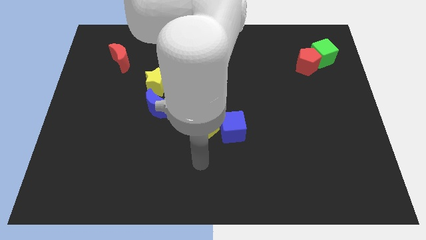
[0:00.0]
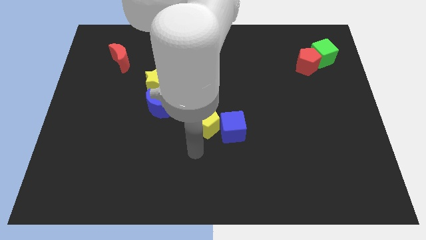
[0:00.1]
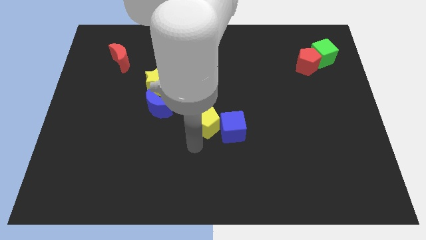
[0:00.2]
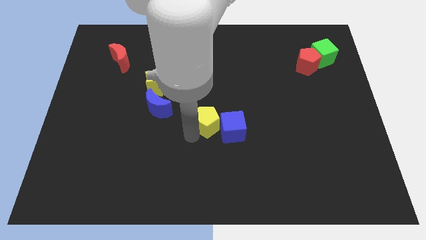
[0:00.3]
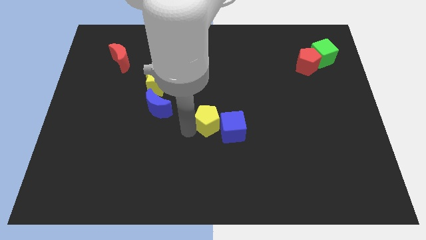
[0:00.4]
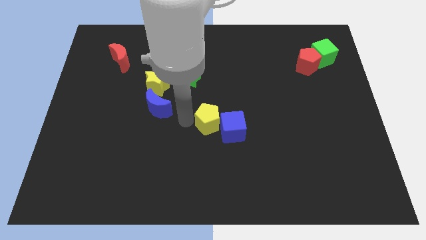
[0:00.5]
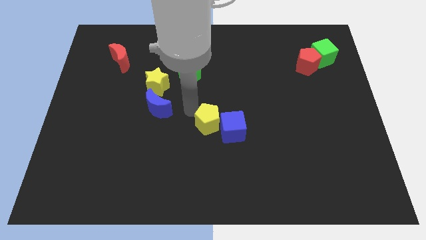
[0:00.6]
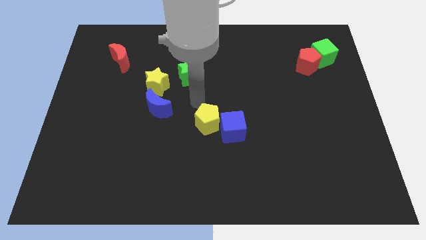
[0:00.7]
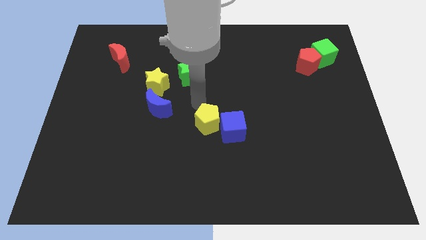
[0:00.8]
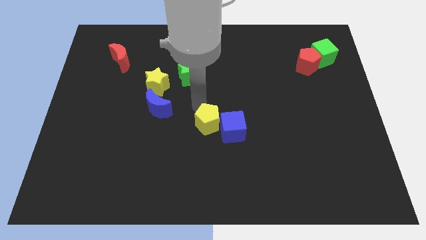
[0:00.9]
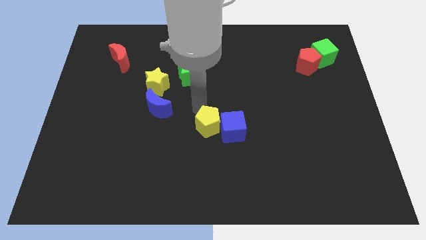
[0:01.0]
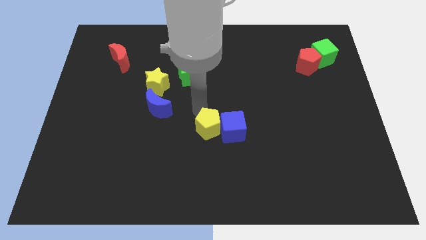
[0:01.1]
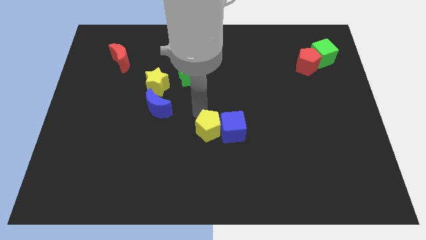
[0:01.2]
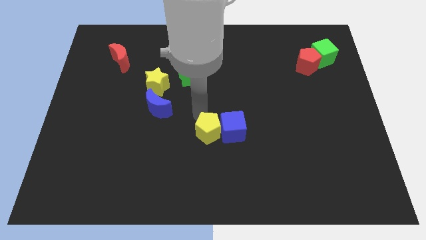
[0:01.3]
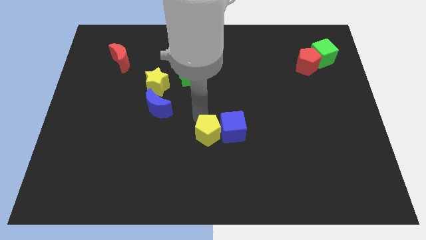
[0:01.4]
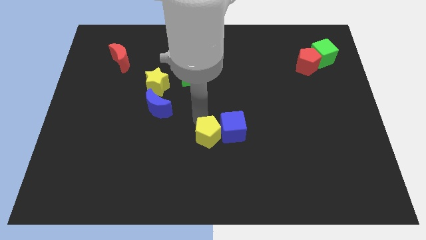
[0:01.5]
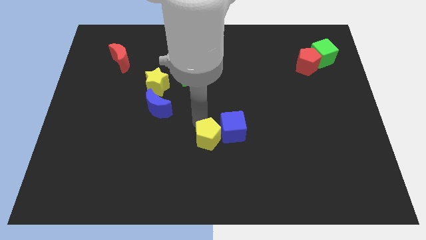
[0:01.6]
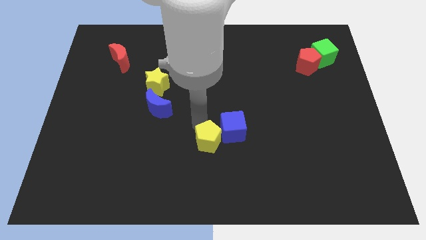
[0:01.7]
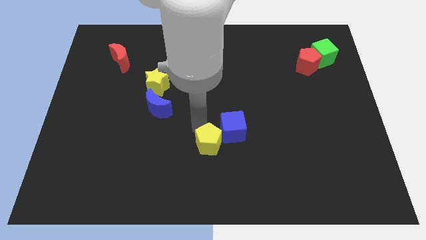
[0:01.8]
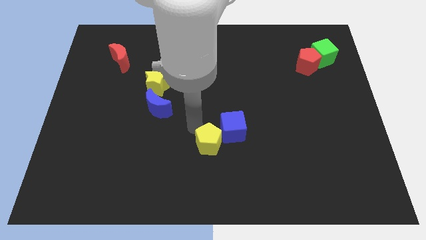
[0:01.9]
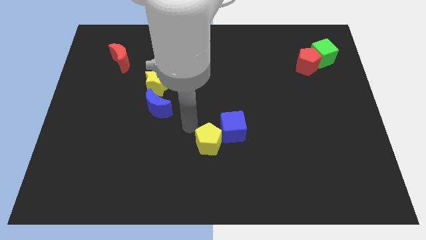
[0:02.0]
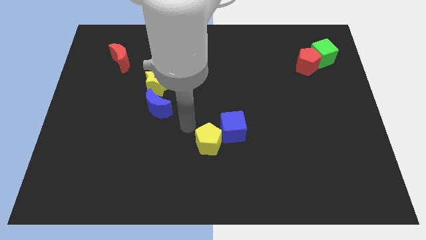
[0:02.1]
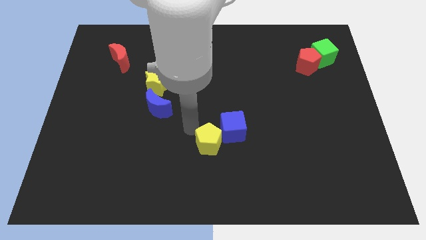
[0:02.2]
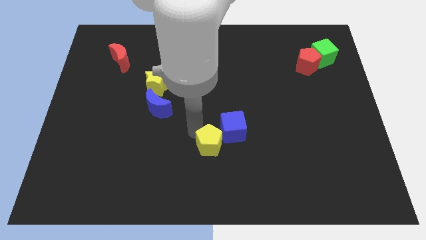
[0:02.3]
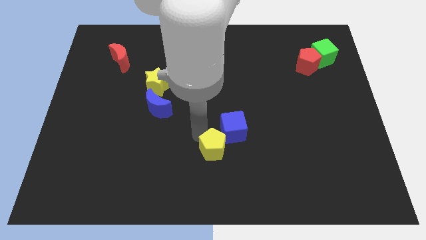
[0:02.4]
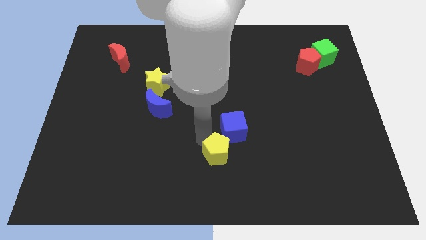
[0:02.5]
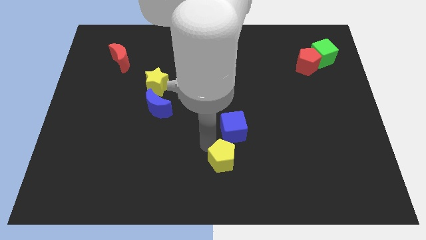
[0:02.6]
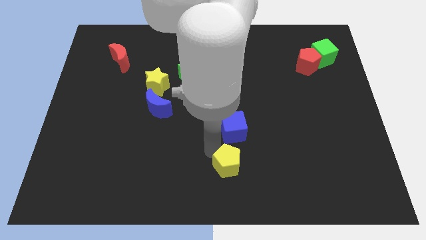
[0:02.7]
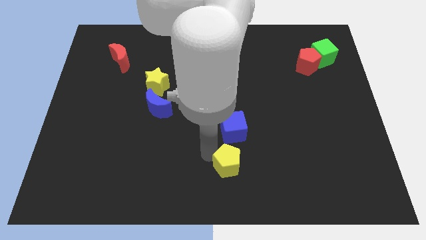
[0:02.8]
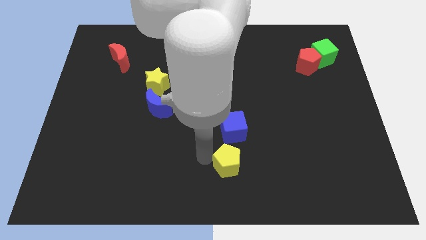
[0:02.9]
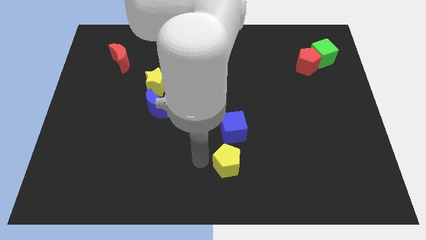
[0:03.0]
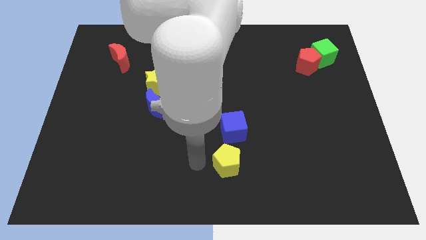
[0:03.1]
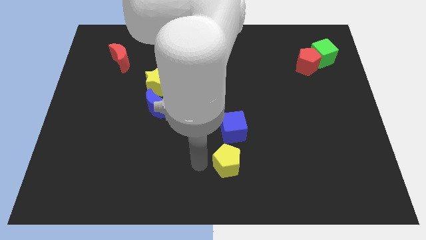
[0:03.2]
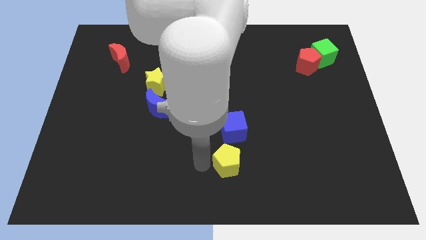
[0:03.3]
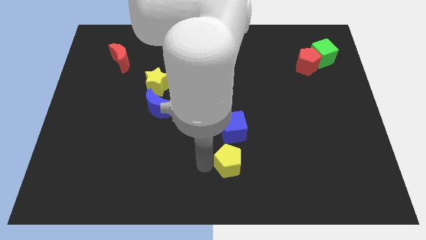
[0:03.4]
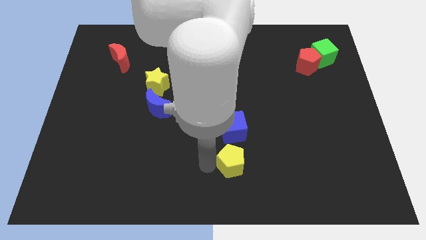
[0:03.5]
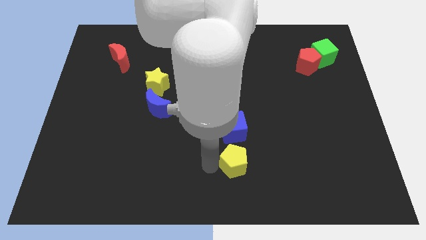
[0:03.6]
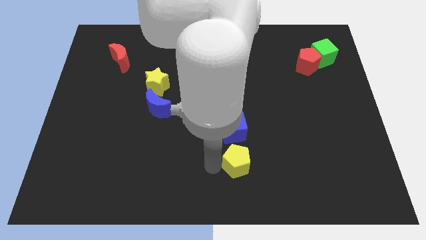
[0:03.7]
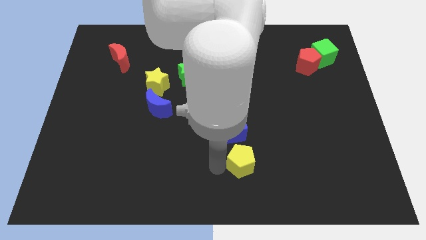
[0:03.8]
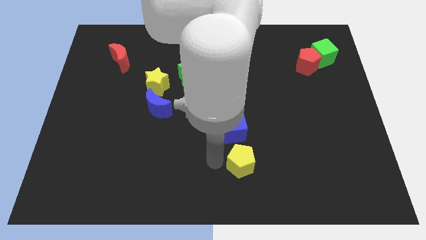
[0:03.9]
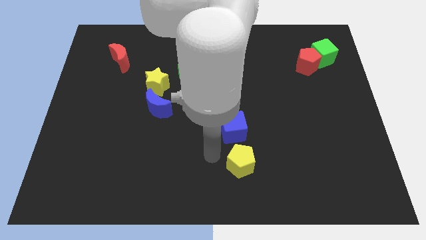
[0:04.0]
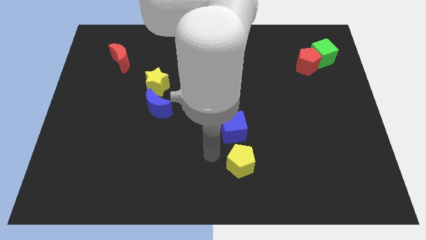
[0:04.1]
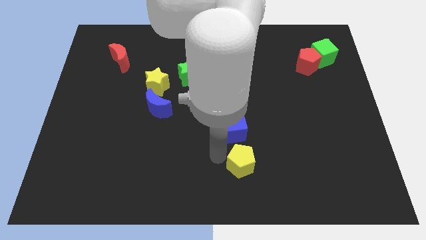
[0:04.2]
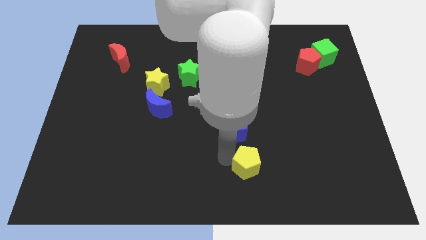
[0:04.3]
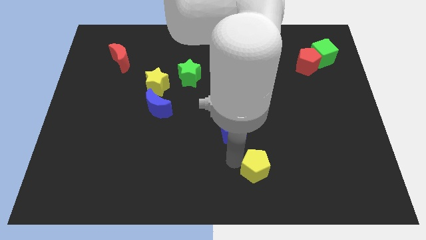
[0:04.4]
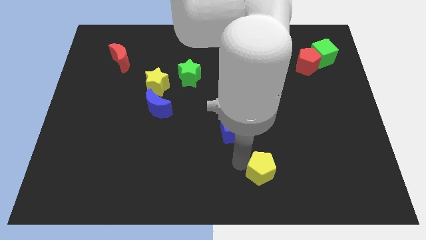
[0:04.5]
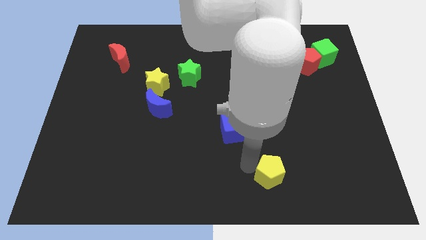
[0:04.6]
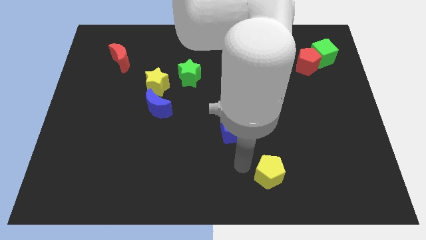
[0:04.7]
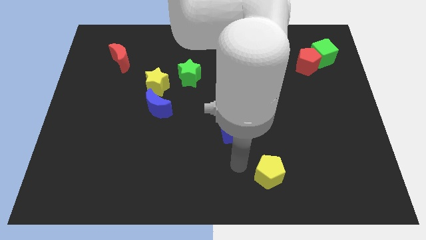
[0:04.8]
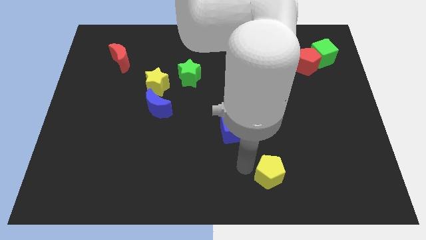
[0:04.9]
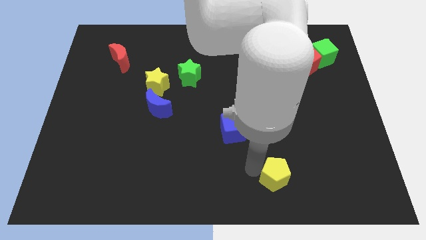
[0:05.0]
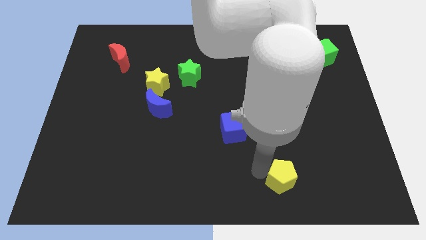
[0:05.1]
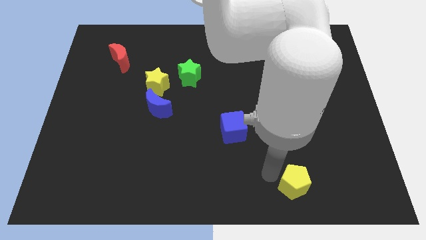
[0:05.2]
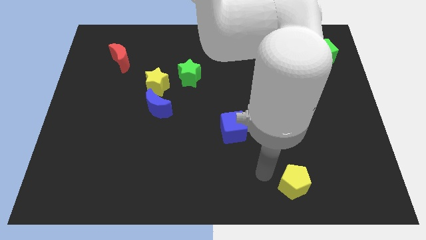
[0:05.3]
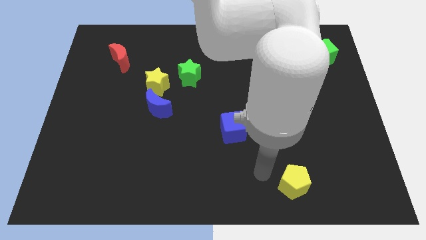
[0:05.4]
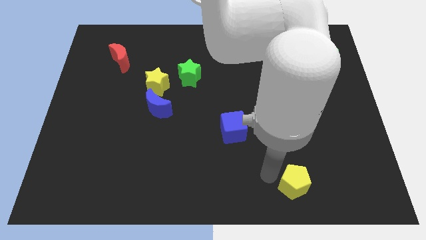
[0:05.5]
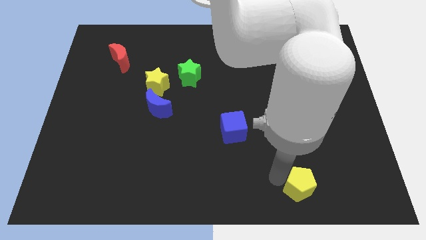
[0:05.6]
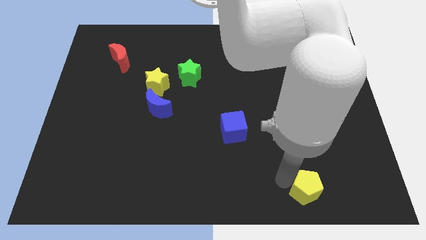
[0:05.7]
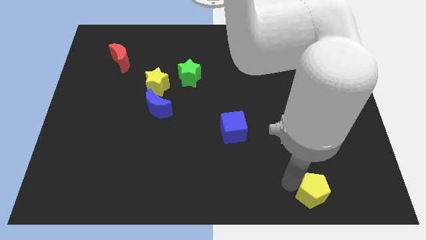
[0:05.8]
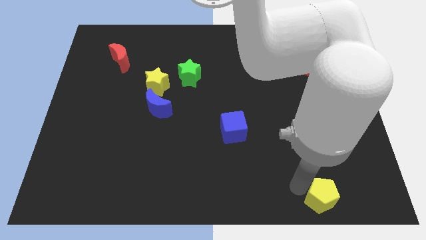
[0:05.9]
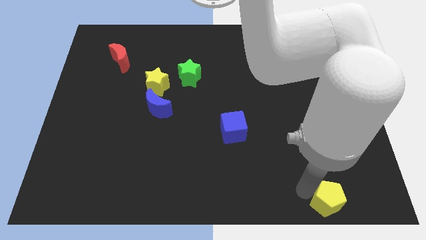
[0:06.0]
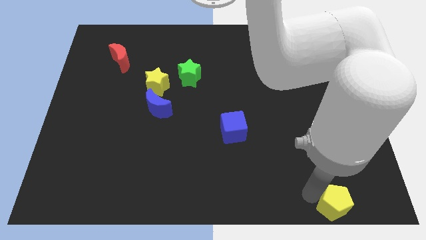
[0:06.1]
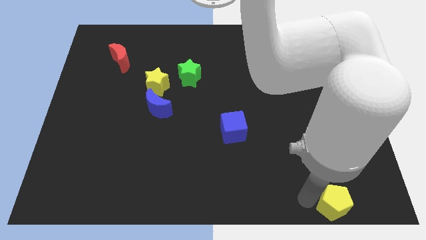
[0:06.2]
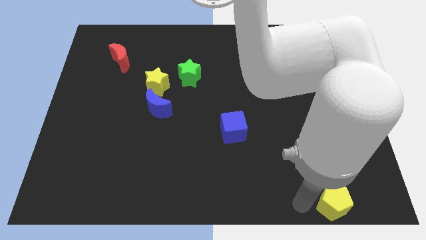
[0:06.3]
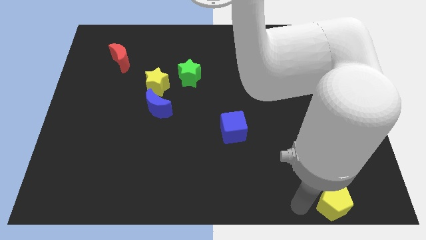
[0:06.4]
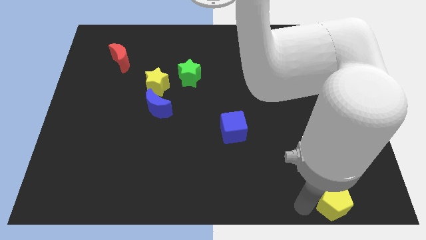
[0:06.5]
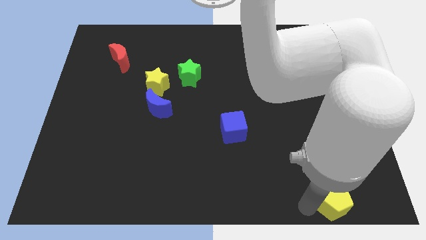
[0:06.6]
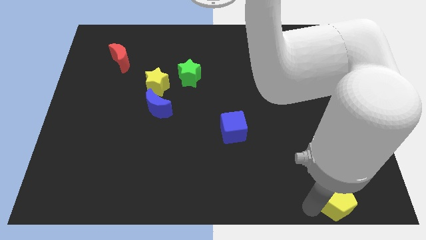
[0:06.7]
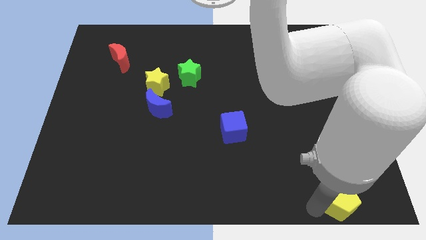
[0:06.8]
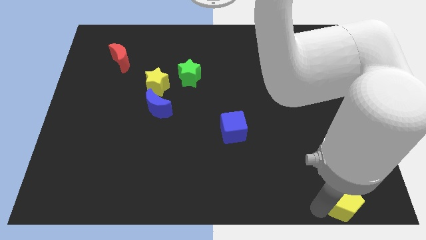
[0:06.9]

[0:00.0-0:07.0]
move the yellow pentagon to the bottom right corner
